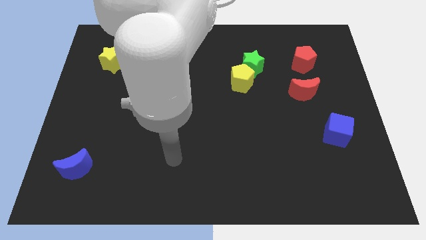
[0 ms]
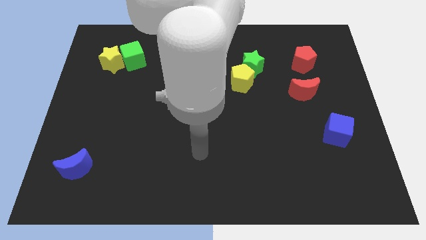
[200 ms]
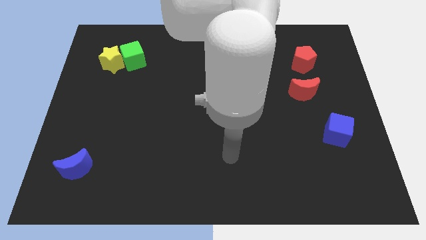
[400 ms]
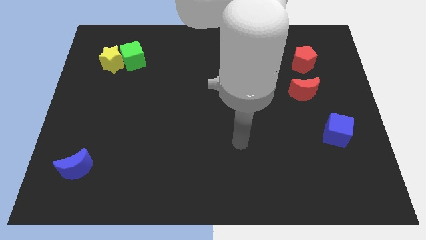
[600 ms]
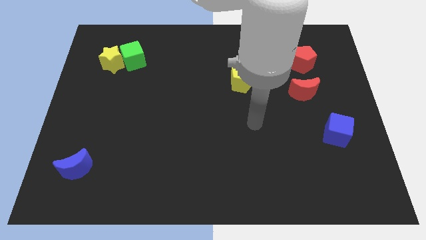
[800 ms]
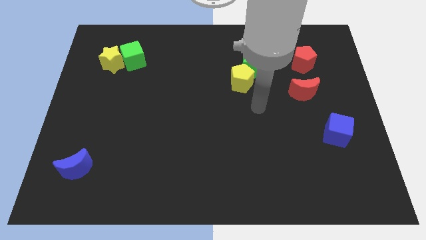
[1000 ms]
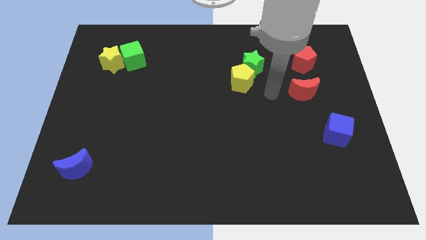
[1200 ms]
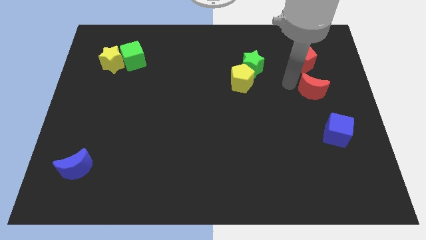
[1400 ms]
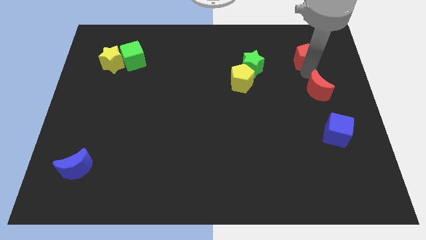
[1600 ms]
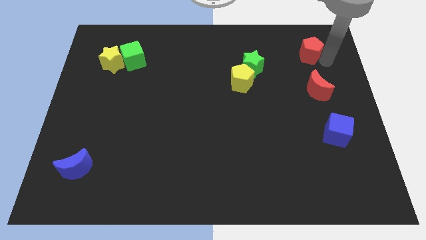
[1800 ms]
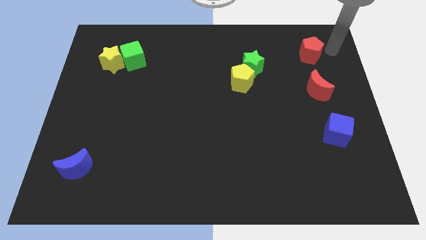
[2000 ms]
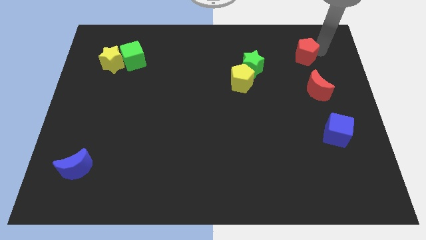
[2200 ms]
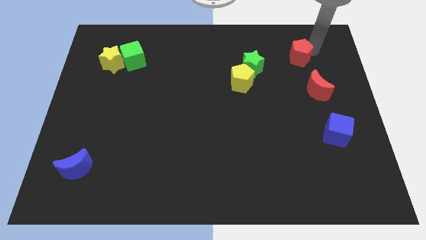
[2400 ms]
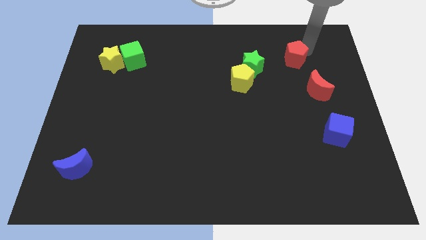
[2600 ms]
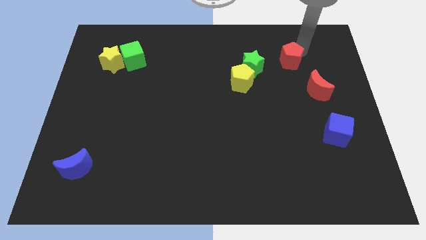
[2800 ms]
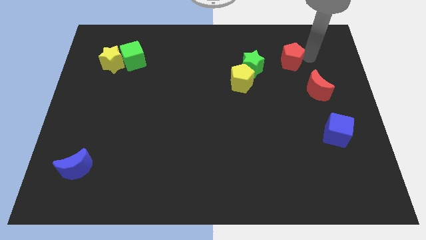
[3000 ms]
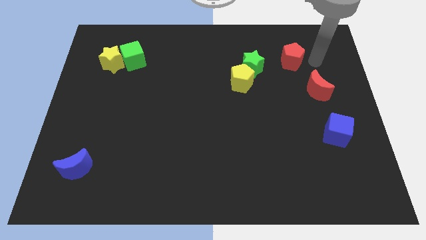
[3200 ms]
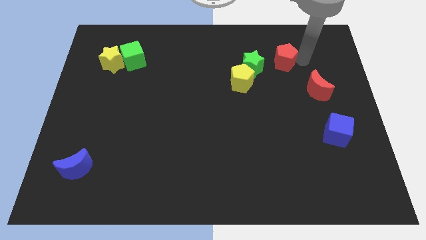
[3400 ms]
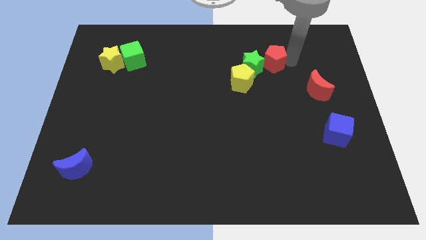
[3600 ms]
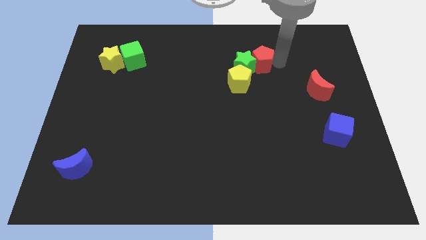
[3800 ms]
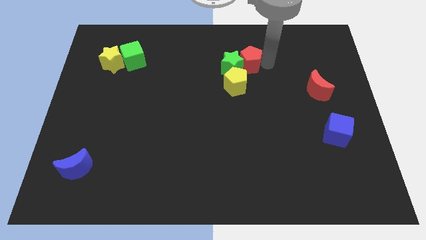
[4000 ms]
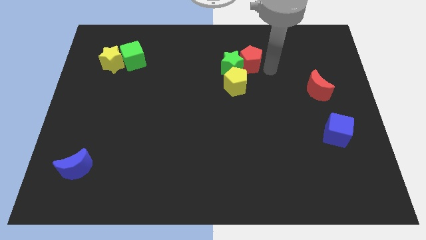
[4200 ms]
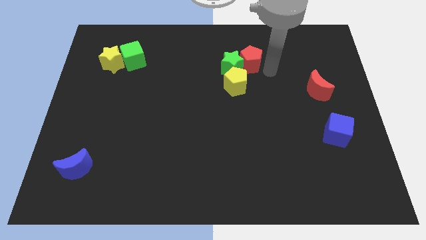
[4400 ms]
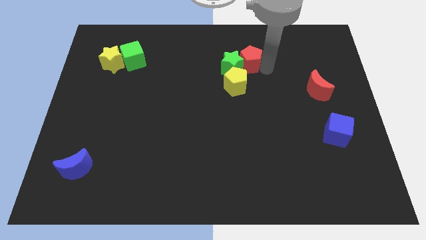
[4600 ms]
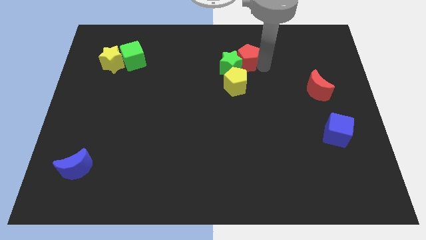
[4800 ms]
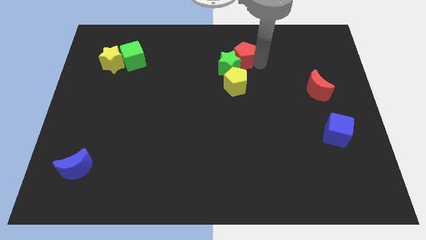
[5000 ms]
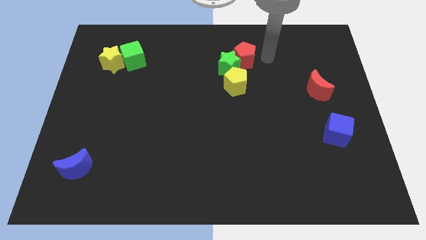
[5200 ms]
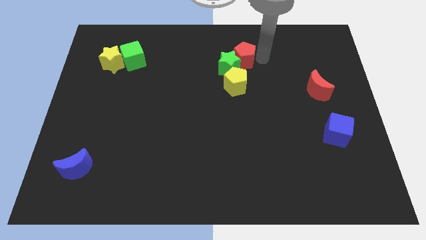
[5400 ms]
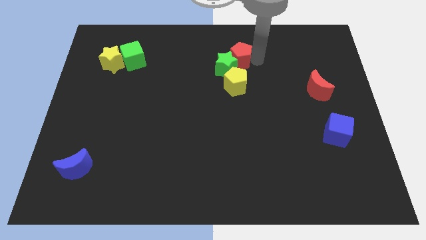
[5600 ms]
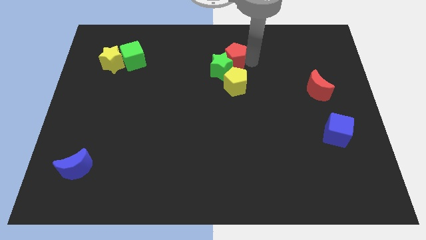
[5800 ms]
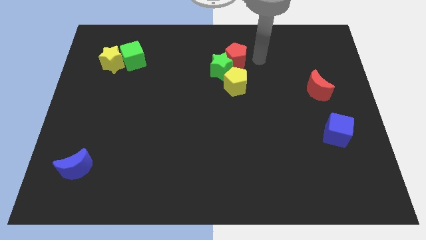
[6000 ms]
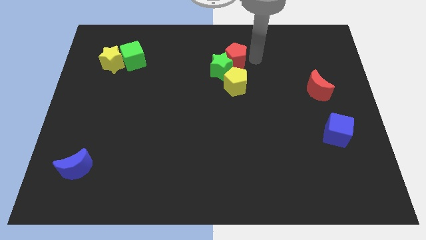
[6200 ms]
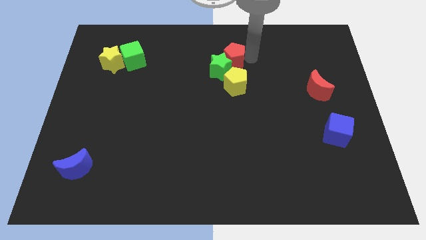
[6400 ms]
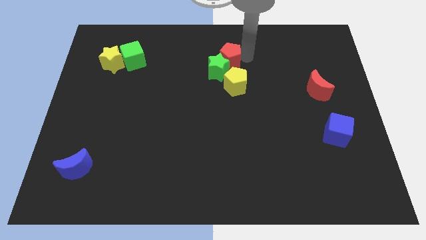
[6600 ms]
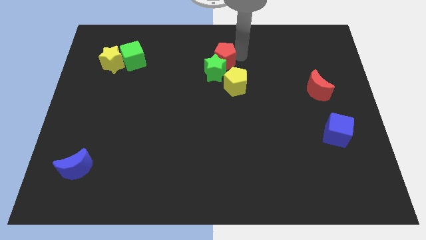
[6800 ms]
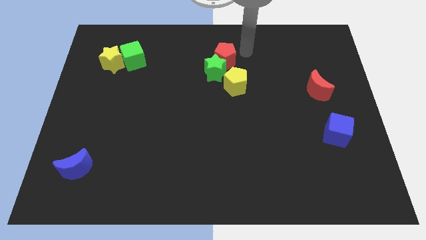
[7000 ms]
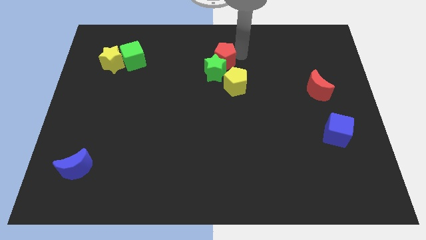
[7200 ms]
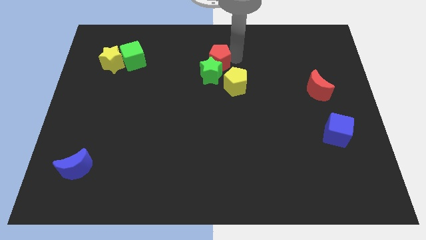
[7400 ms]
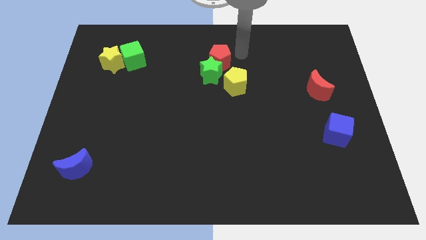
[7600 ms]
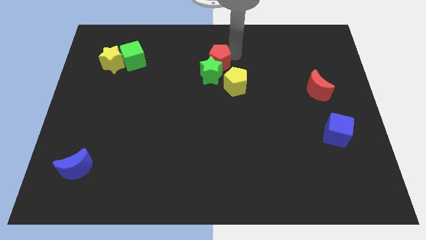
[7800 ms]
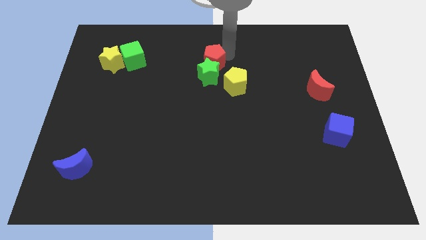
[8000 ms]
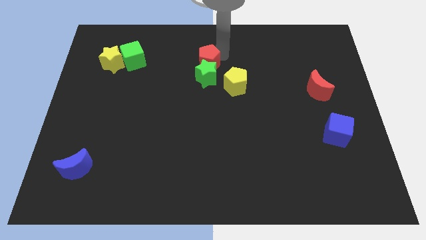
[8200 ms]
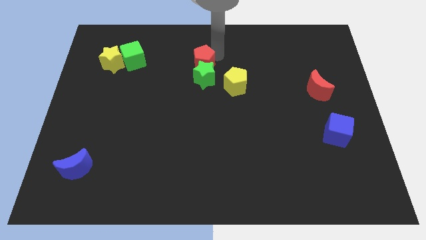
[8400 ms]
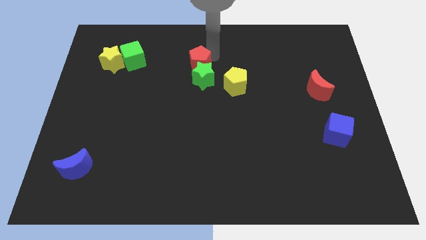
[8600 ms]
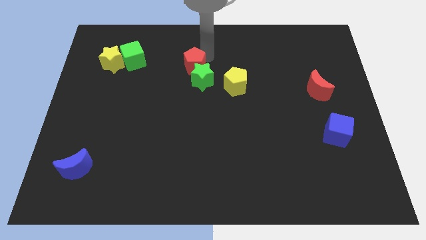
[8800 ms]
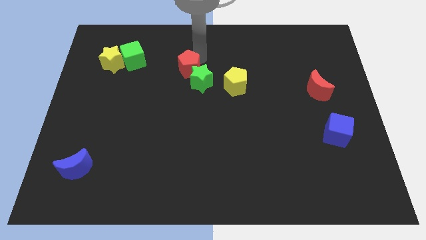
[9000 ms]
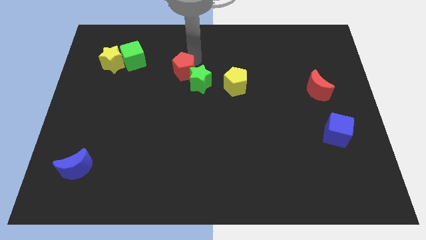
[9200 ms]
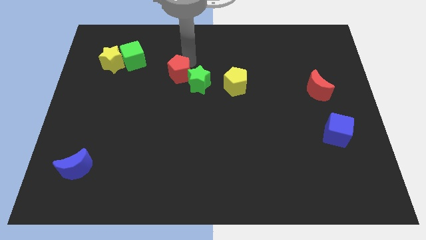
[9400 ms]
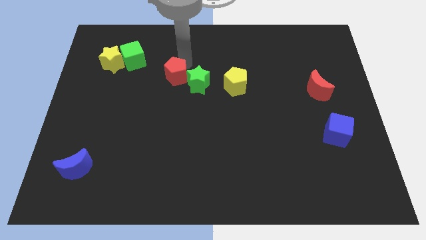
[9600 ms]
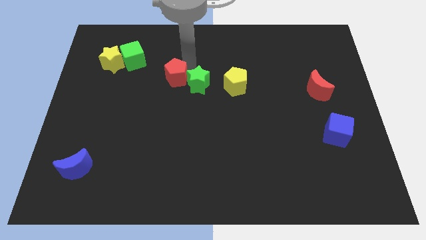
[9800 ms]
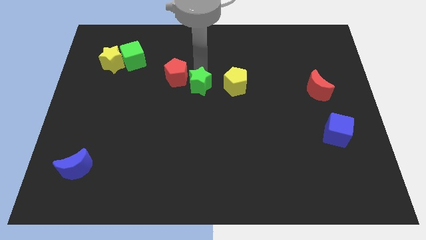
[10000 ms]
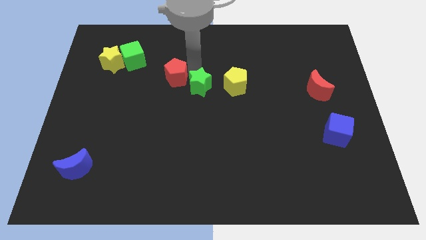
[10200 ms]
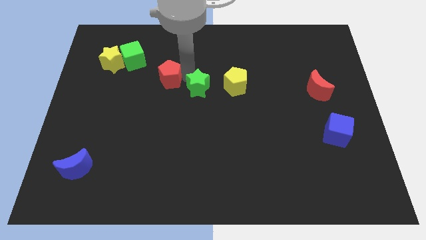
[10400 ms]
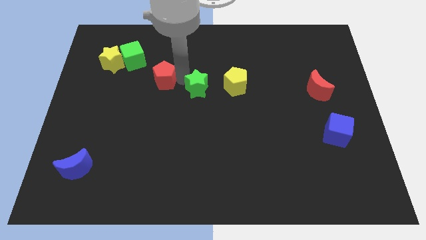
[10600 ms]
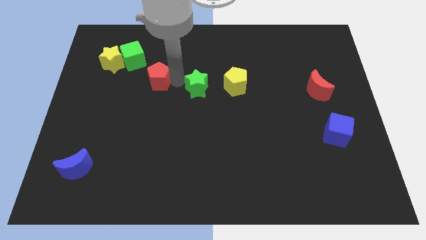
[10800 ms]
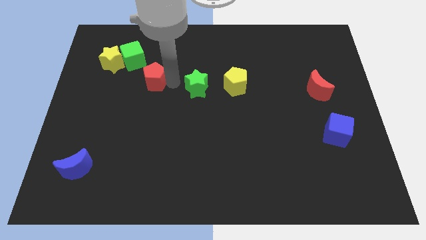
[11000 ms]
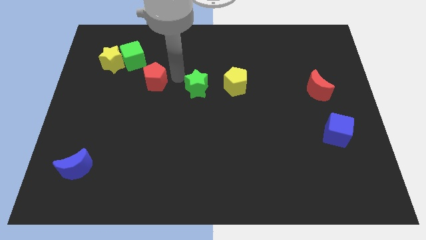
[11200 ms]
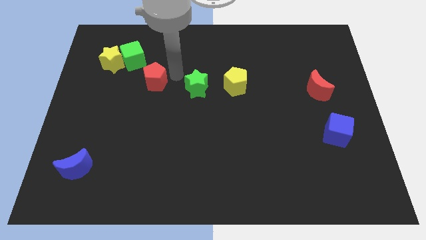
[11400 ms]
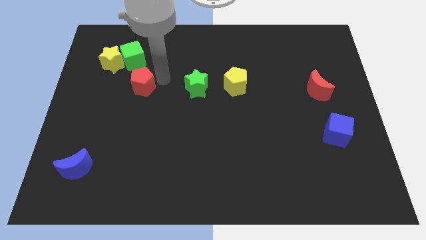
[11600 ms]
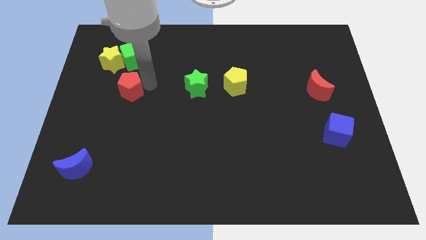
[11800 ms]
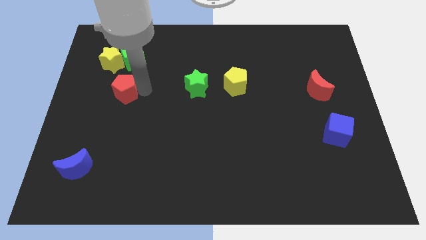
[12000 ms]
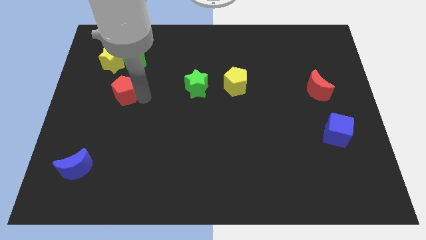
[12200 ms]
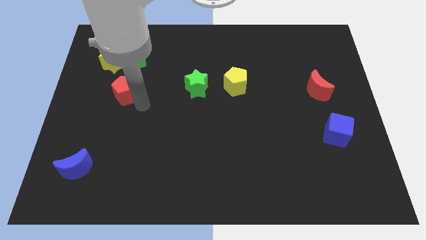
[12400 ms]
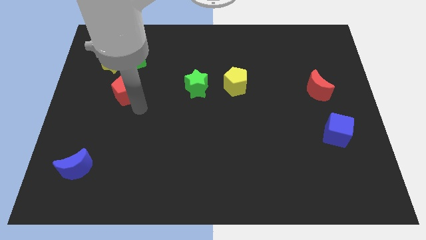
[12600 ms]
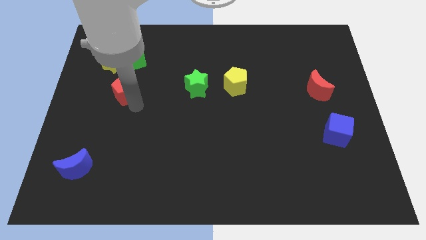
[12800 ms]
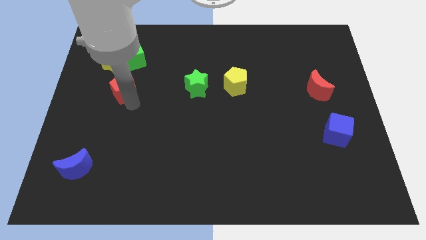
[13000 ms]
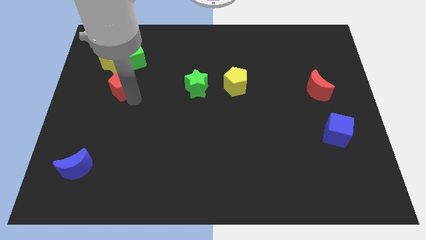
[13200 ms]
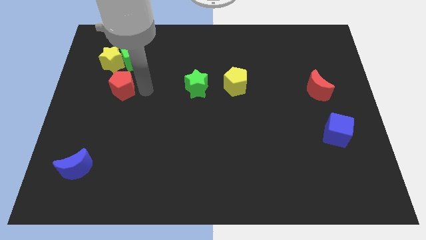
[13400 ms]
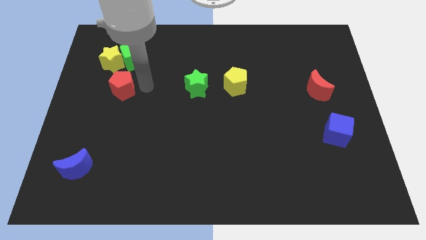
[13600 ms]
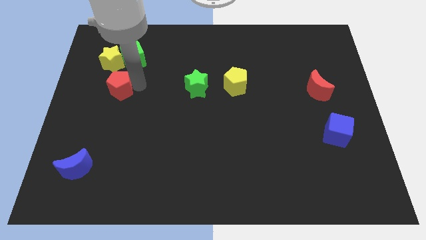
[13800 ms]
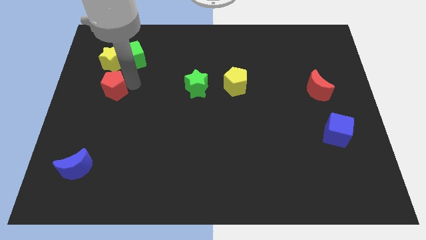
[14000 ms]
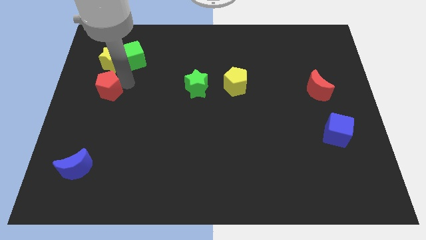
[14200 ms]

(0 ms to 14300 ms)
move the red pentagon to the left side of the board
